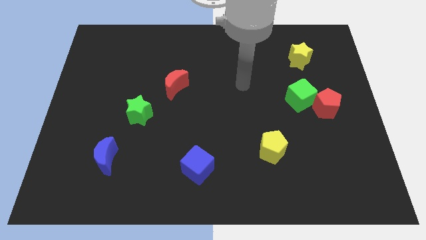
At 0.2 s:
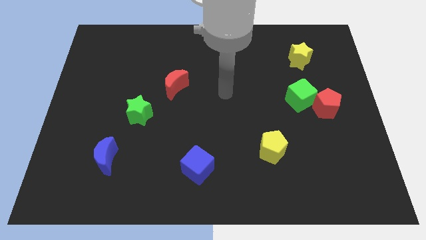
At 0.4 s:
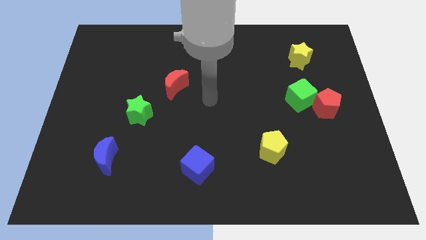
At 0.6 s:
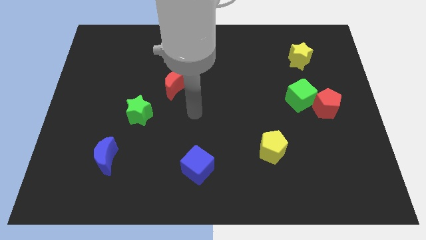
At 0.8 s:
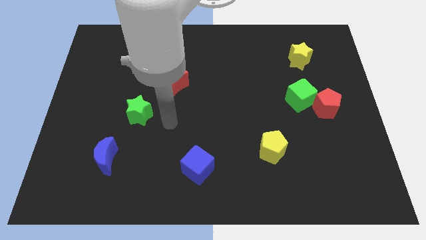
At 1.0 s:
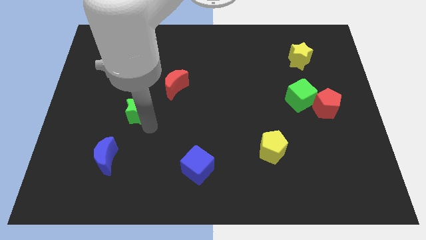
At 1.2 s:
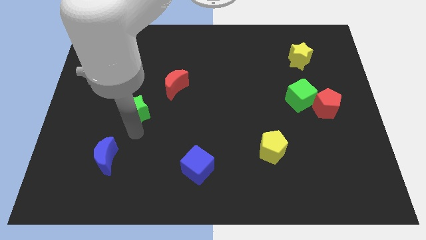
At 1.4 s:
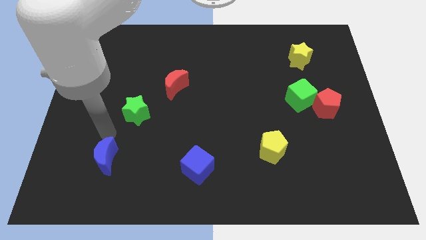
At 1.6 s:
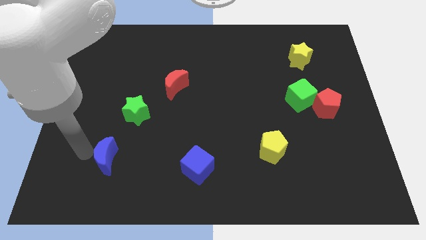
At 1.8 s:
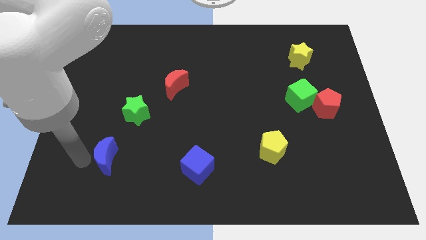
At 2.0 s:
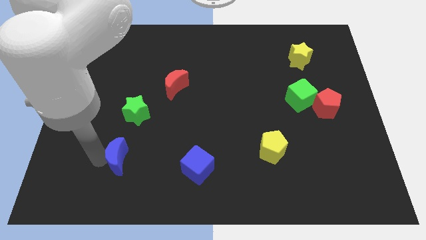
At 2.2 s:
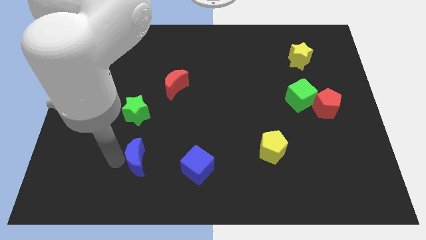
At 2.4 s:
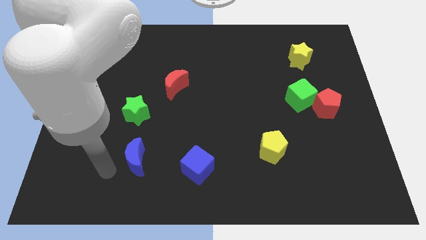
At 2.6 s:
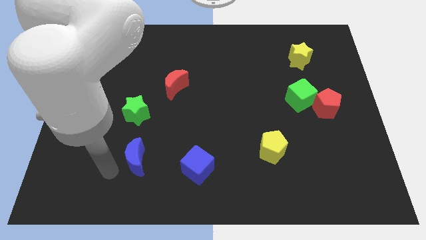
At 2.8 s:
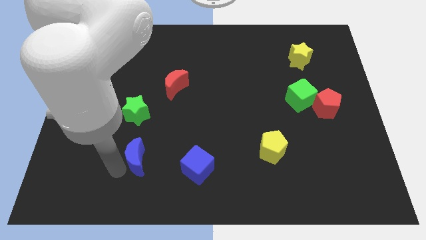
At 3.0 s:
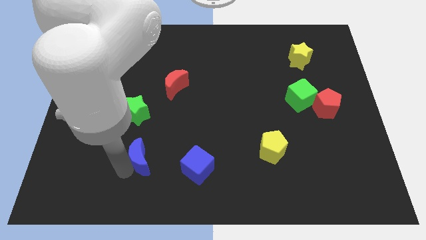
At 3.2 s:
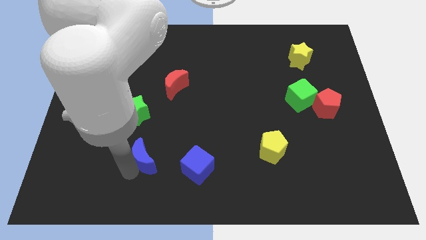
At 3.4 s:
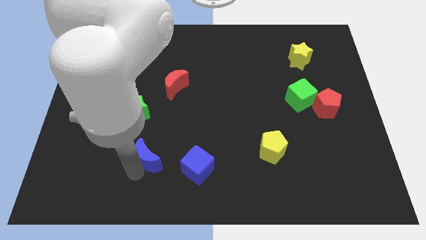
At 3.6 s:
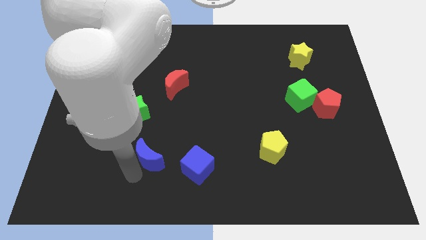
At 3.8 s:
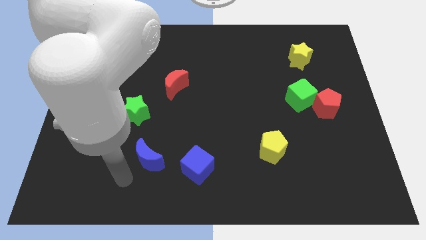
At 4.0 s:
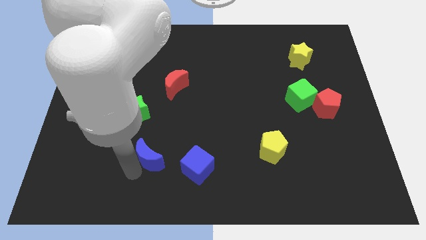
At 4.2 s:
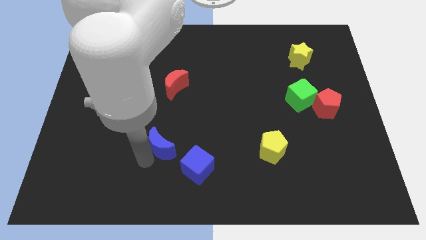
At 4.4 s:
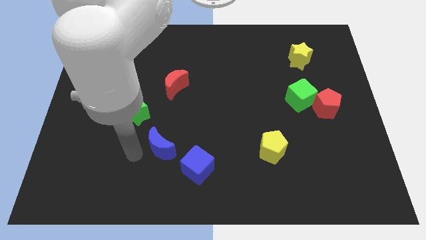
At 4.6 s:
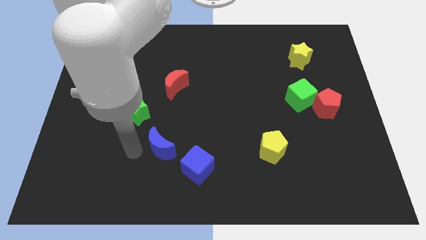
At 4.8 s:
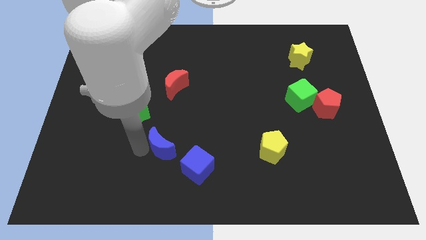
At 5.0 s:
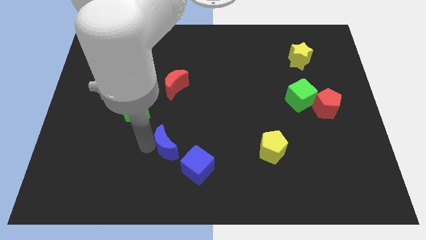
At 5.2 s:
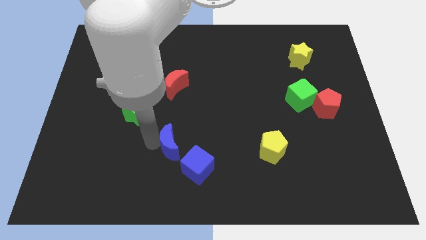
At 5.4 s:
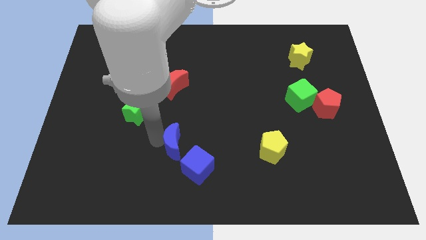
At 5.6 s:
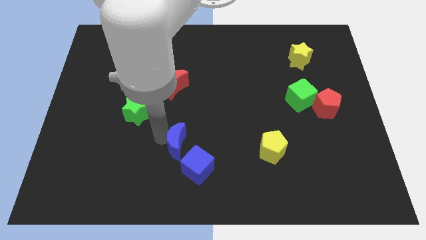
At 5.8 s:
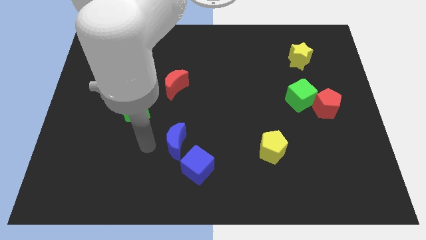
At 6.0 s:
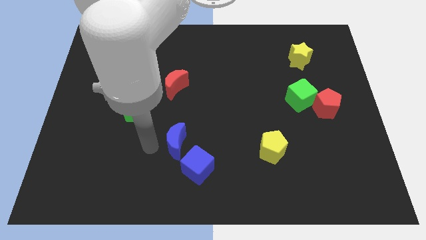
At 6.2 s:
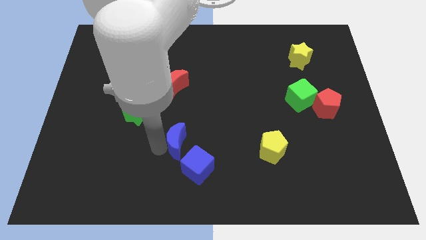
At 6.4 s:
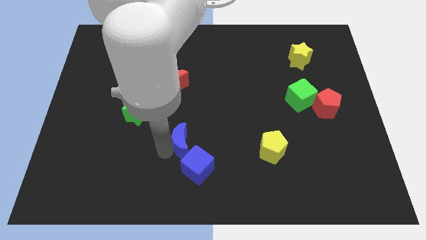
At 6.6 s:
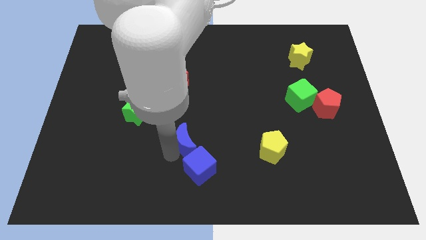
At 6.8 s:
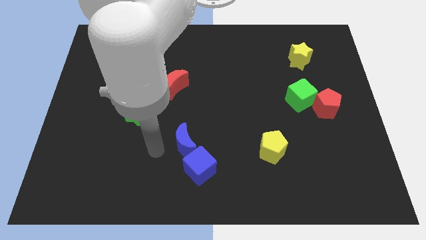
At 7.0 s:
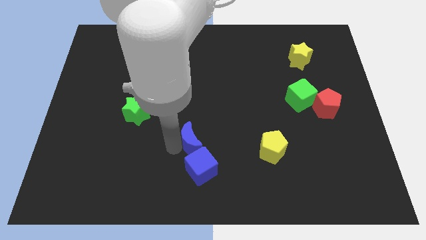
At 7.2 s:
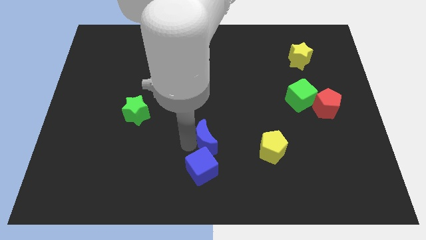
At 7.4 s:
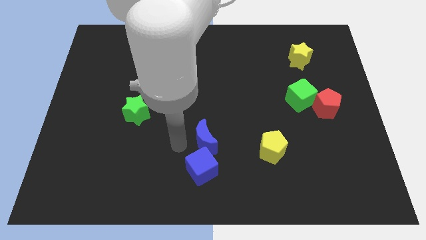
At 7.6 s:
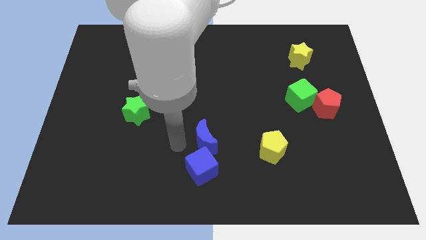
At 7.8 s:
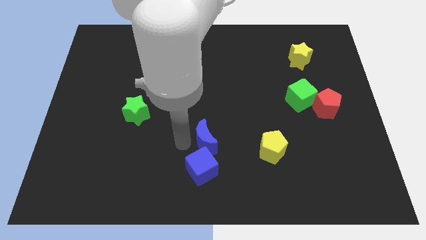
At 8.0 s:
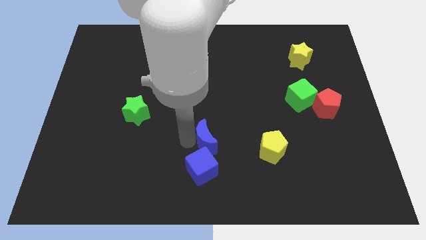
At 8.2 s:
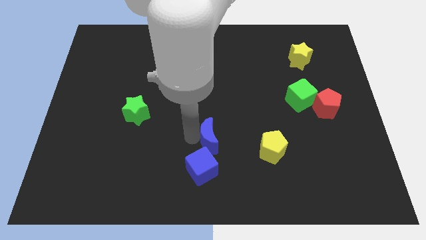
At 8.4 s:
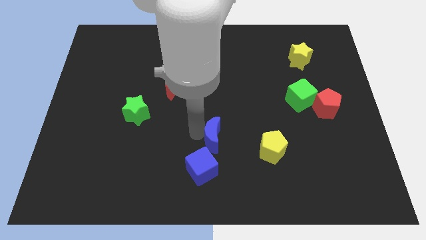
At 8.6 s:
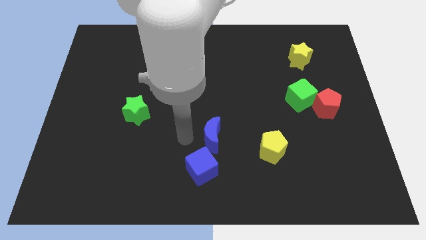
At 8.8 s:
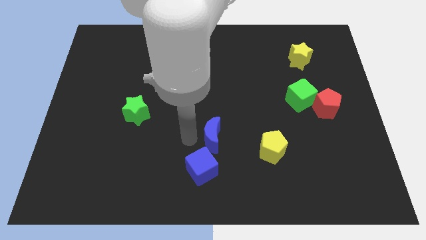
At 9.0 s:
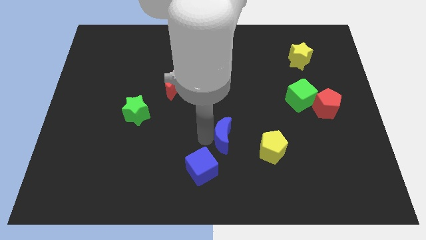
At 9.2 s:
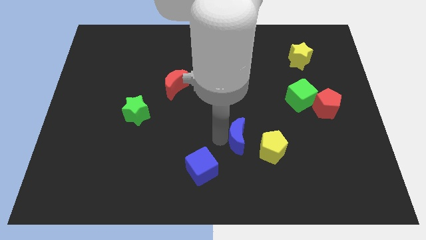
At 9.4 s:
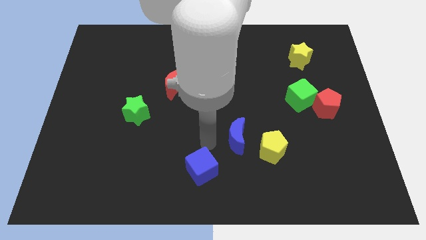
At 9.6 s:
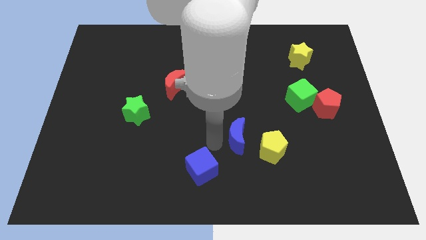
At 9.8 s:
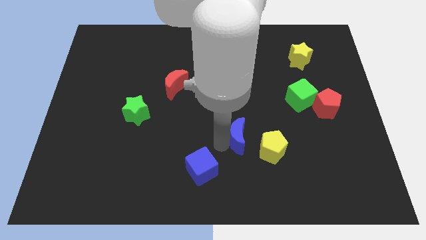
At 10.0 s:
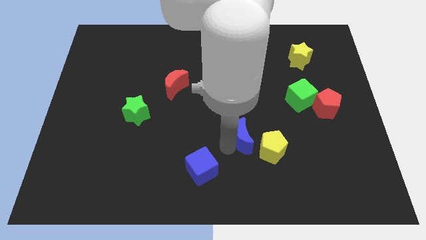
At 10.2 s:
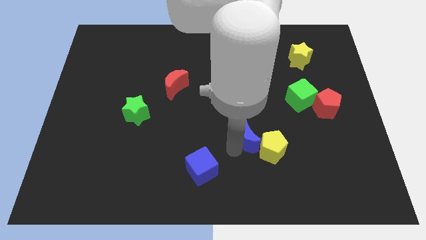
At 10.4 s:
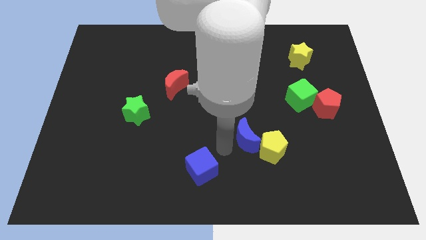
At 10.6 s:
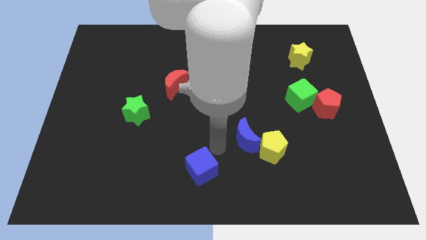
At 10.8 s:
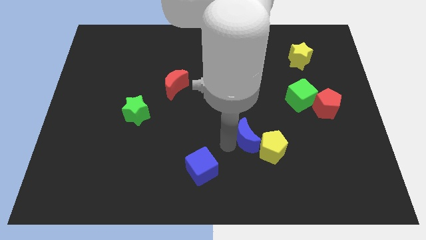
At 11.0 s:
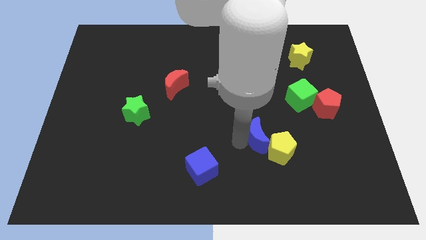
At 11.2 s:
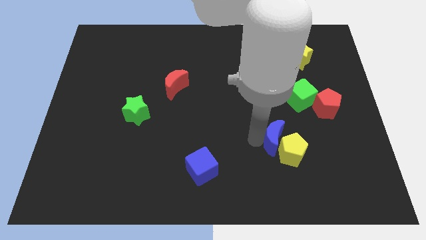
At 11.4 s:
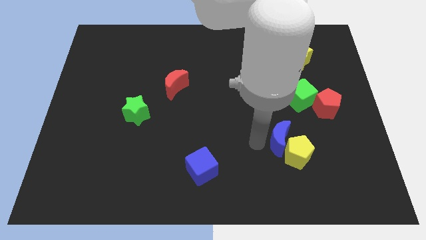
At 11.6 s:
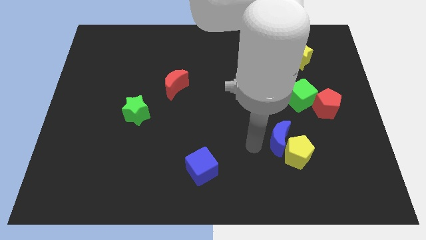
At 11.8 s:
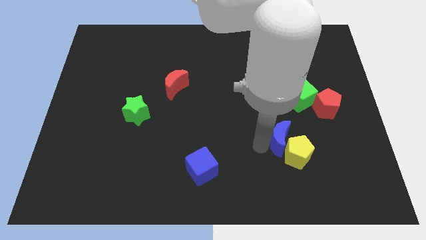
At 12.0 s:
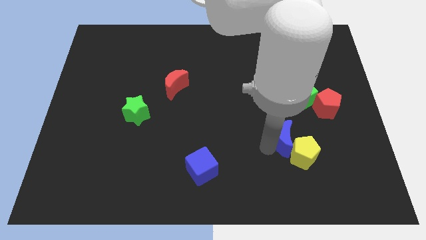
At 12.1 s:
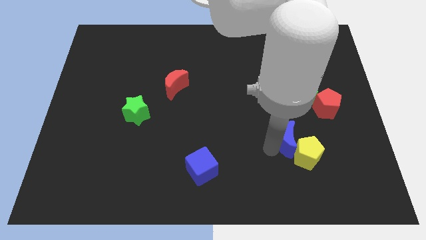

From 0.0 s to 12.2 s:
slide the blue moon below the green cube
